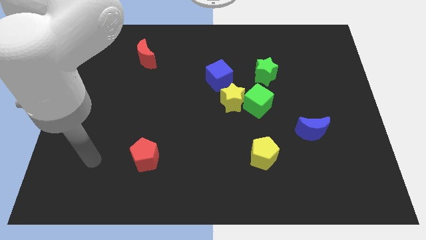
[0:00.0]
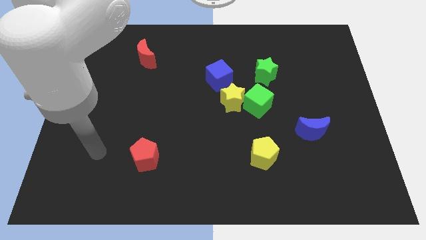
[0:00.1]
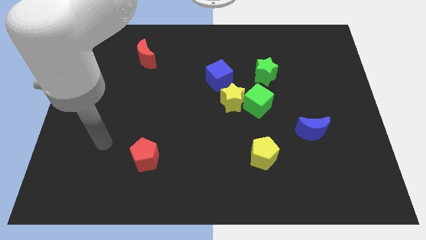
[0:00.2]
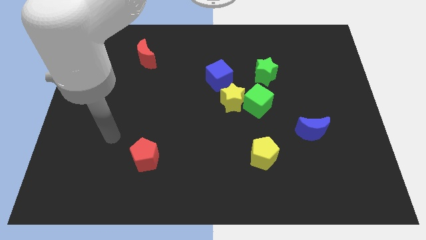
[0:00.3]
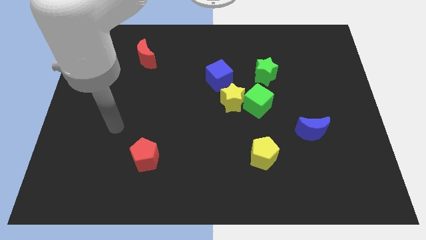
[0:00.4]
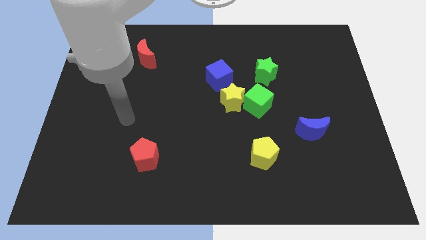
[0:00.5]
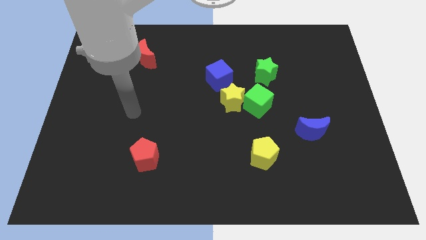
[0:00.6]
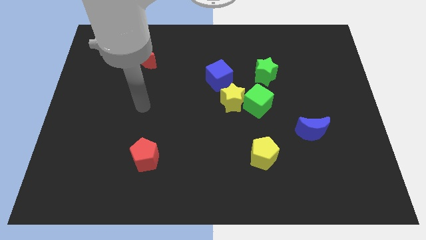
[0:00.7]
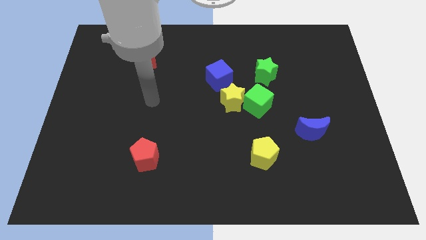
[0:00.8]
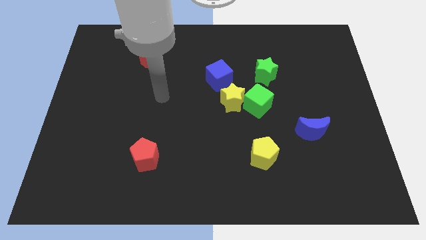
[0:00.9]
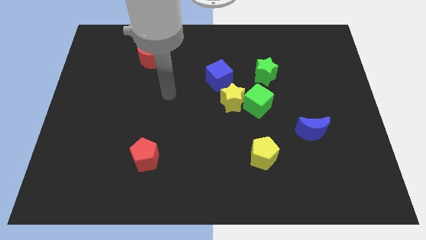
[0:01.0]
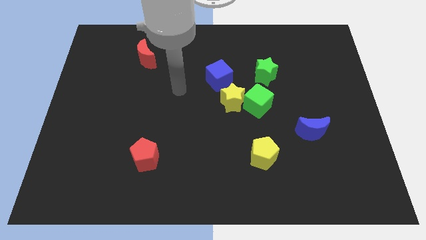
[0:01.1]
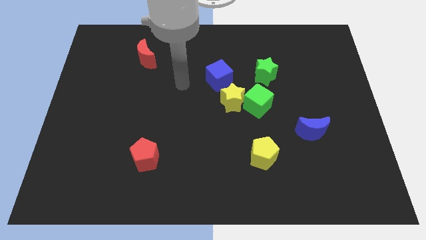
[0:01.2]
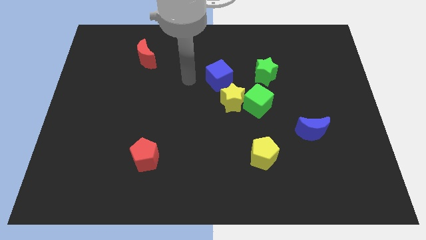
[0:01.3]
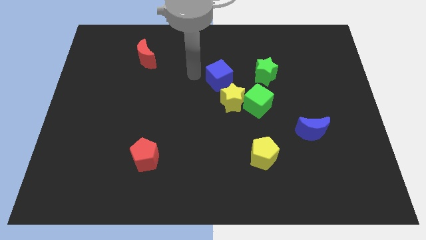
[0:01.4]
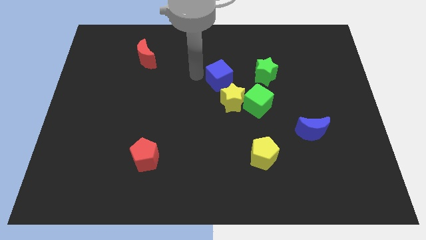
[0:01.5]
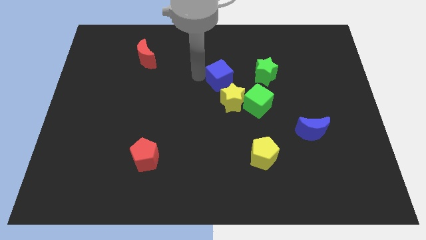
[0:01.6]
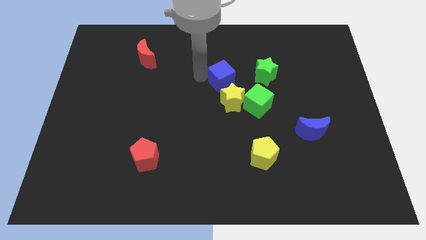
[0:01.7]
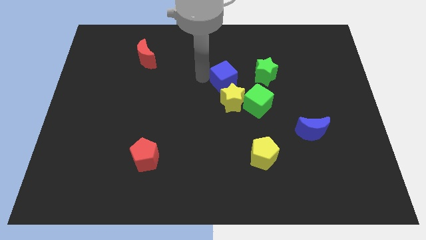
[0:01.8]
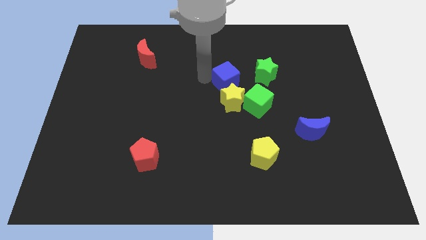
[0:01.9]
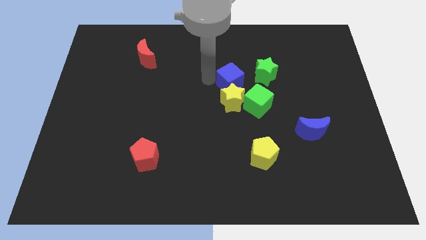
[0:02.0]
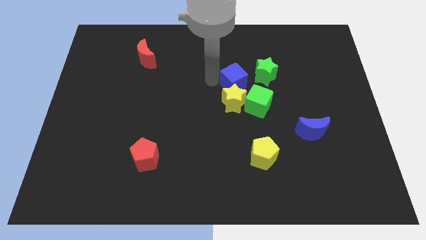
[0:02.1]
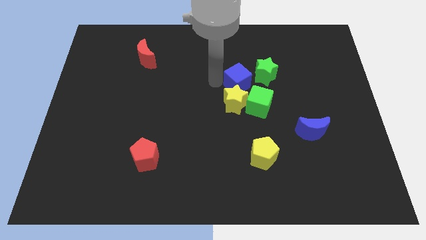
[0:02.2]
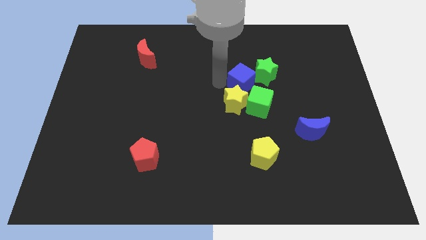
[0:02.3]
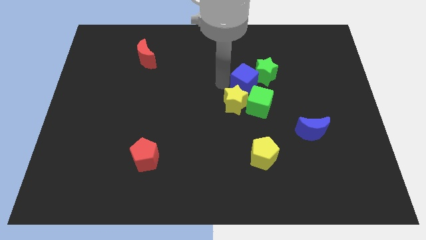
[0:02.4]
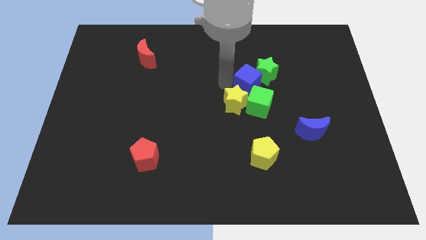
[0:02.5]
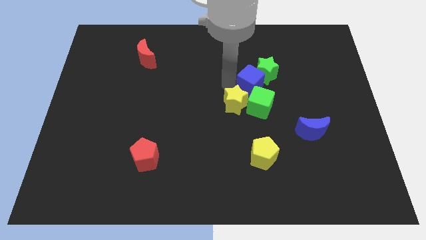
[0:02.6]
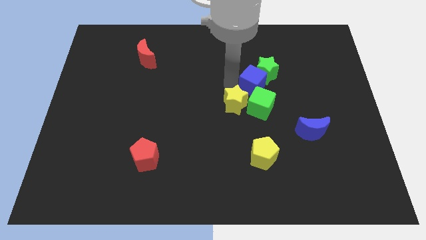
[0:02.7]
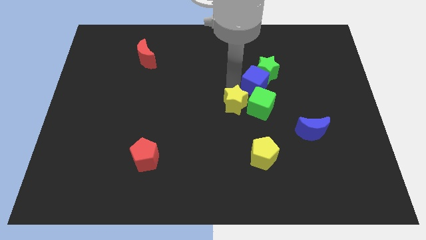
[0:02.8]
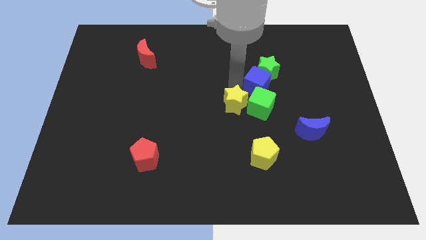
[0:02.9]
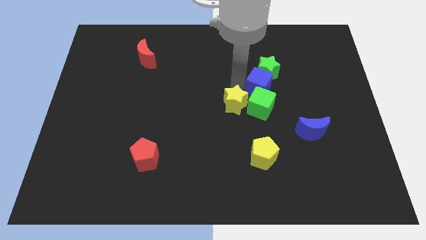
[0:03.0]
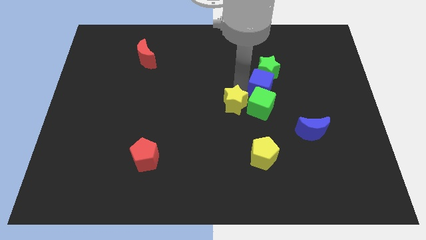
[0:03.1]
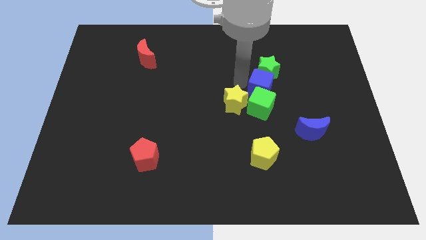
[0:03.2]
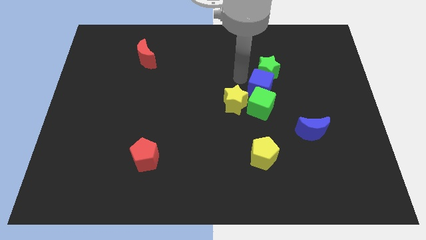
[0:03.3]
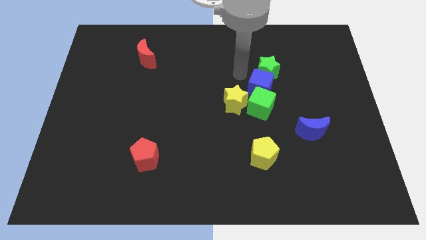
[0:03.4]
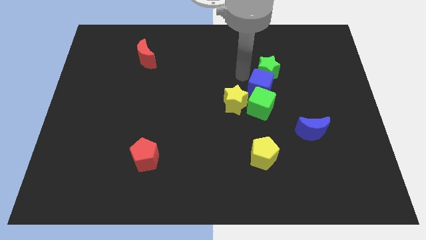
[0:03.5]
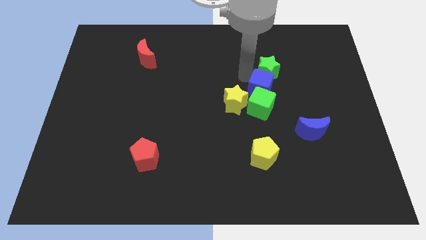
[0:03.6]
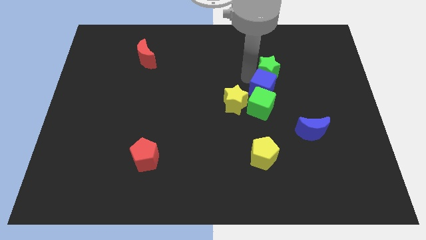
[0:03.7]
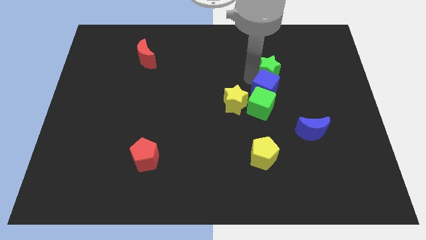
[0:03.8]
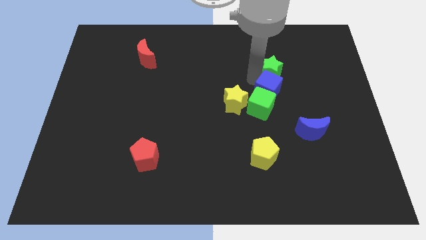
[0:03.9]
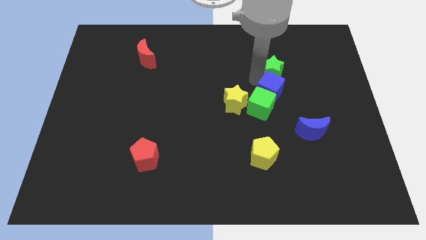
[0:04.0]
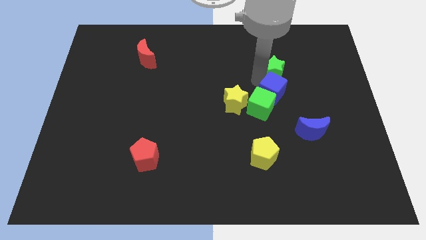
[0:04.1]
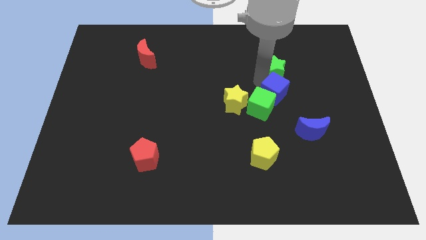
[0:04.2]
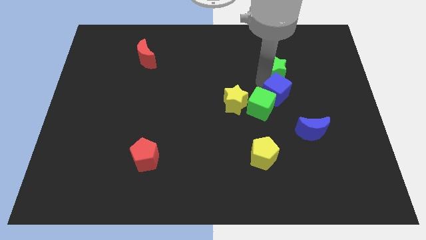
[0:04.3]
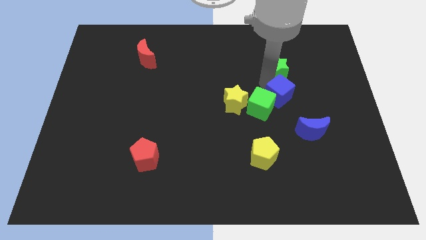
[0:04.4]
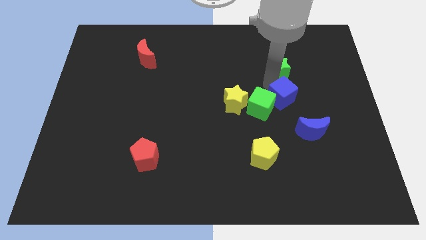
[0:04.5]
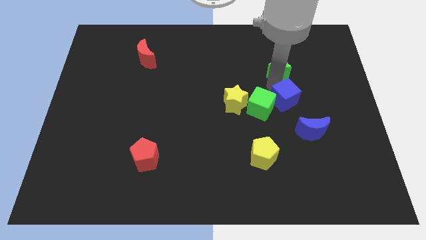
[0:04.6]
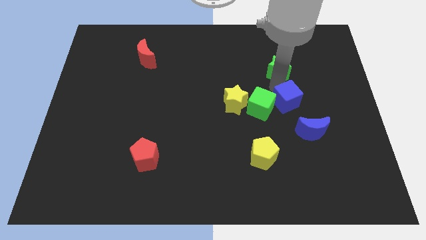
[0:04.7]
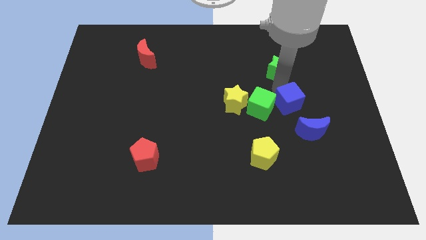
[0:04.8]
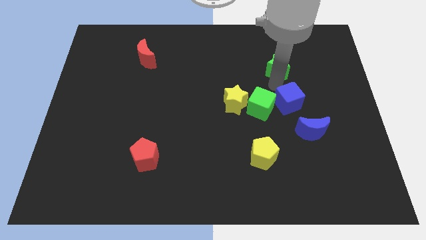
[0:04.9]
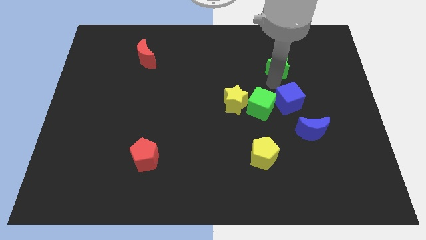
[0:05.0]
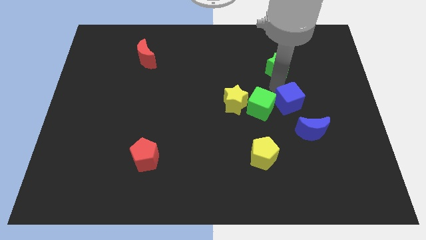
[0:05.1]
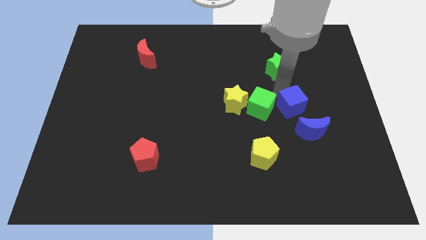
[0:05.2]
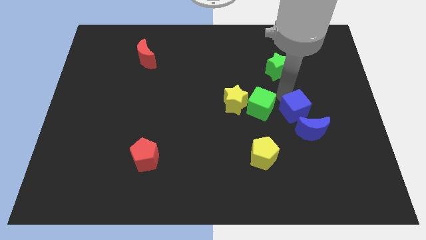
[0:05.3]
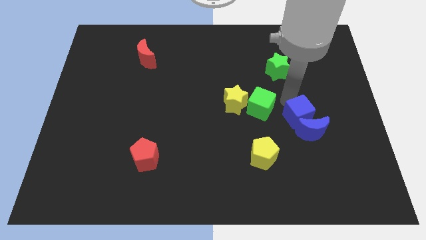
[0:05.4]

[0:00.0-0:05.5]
slide the blue cube towards the blue moon

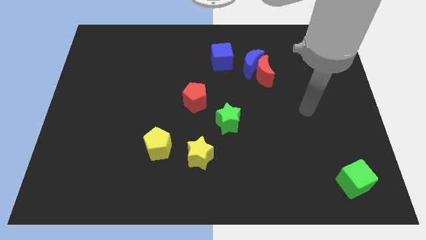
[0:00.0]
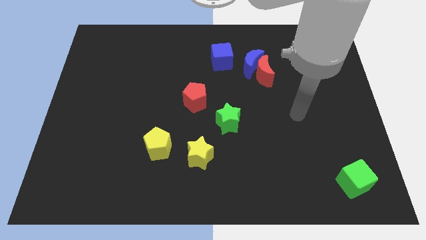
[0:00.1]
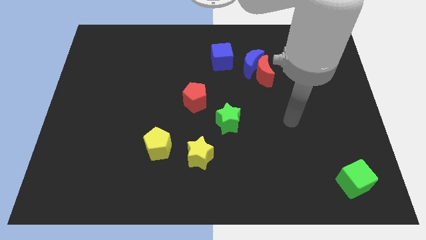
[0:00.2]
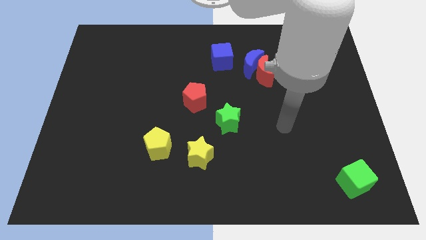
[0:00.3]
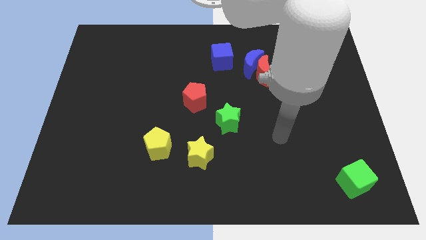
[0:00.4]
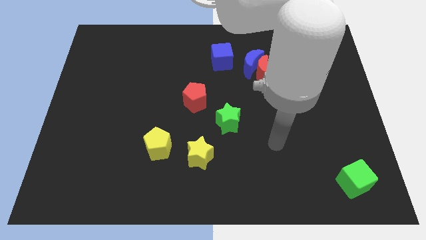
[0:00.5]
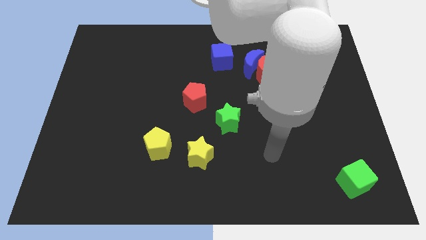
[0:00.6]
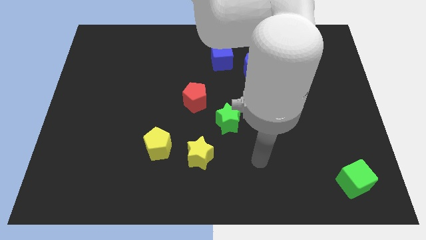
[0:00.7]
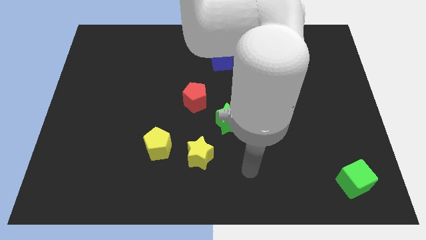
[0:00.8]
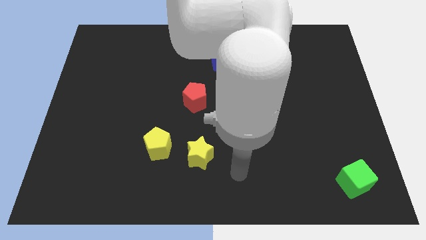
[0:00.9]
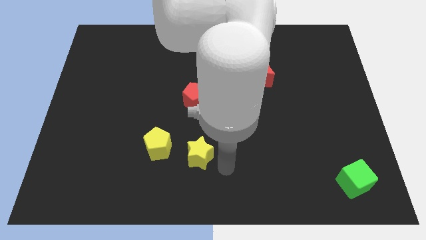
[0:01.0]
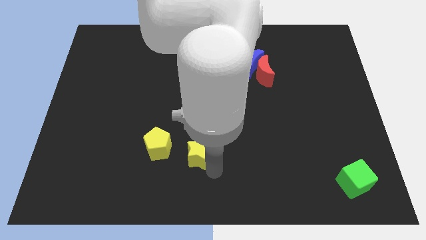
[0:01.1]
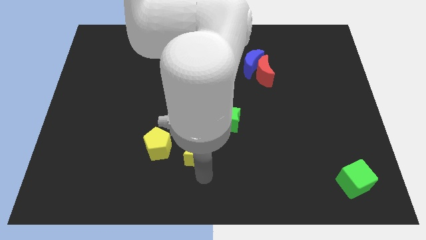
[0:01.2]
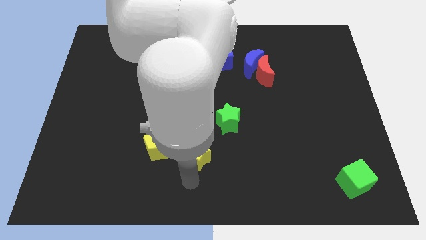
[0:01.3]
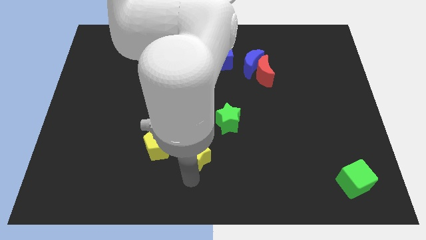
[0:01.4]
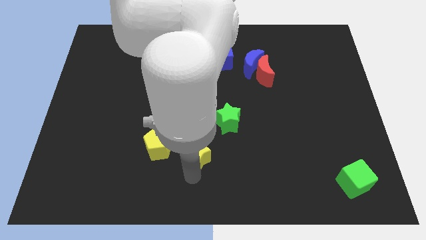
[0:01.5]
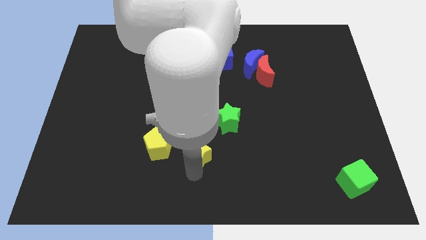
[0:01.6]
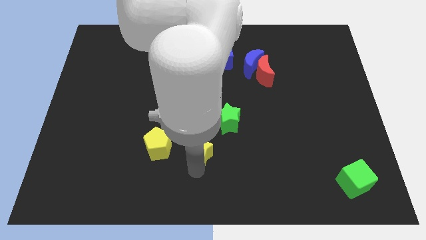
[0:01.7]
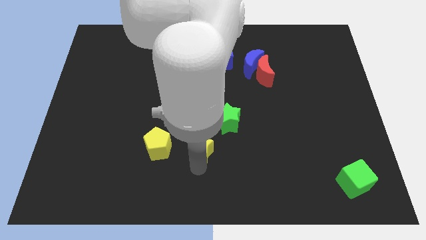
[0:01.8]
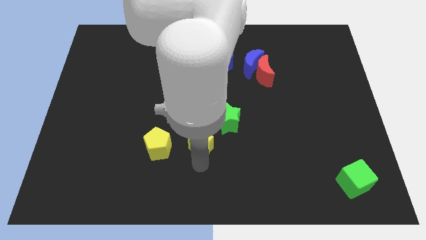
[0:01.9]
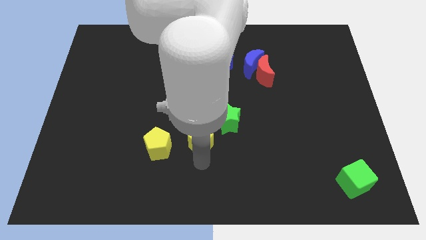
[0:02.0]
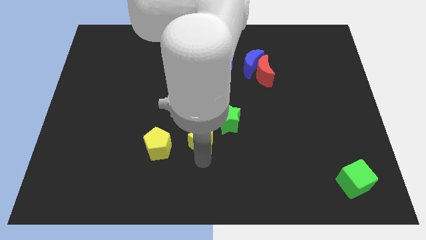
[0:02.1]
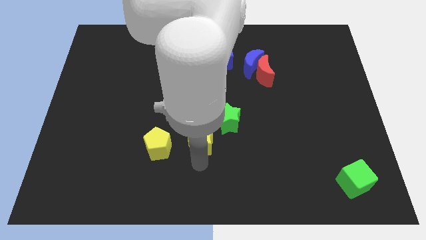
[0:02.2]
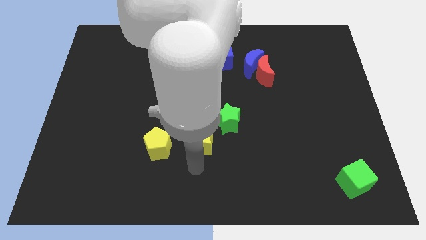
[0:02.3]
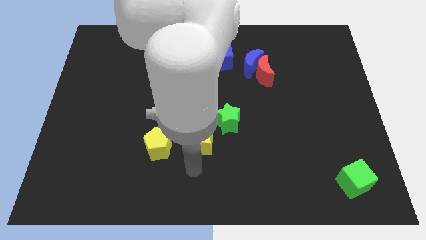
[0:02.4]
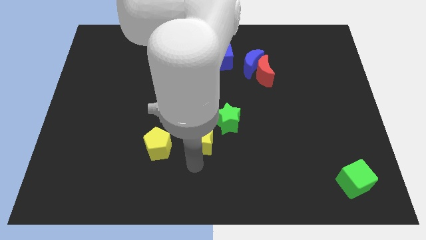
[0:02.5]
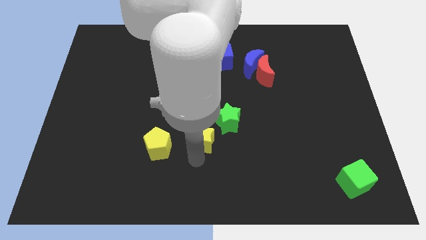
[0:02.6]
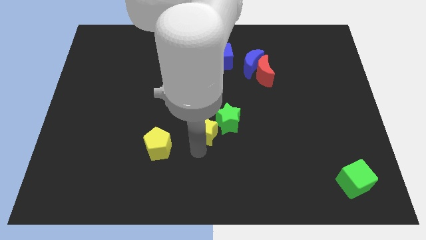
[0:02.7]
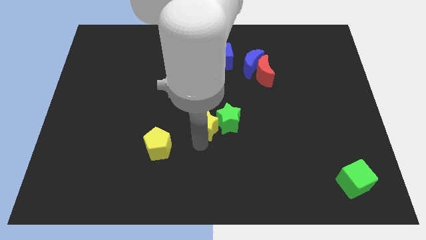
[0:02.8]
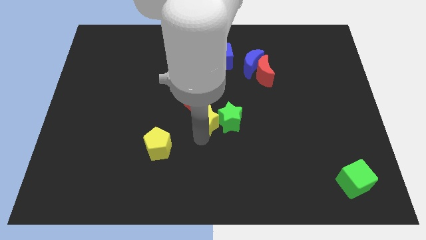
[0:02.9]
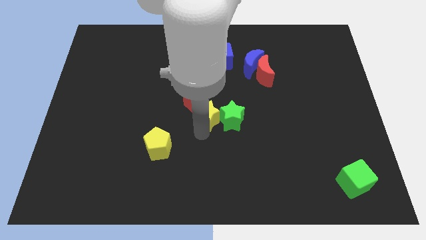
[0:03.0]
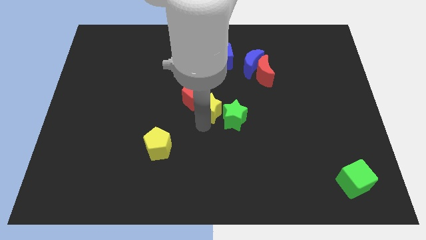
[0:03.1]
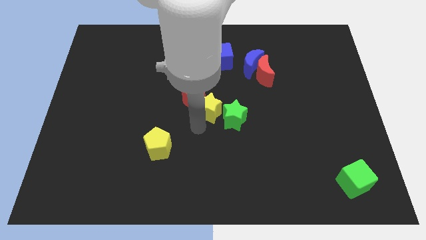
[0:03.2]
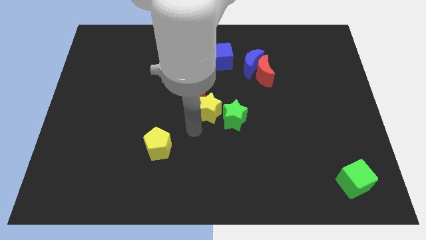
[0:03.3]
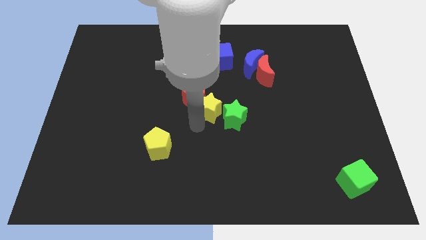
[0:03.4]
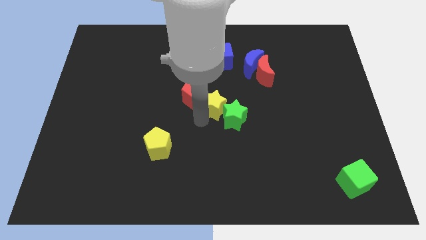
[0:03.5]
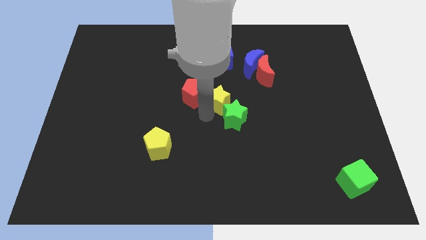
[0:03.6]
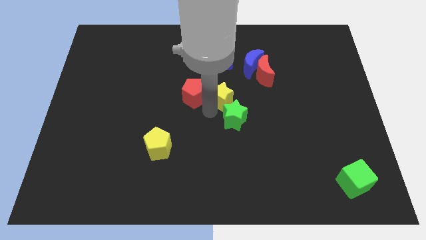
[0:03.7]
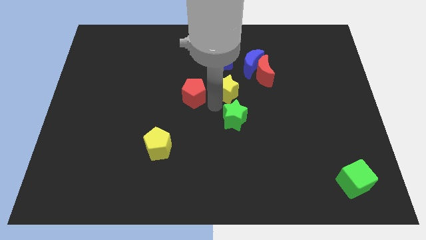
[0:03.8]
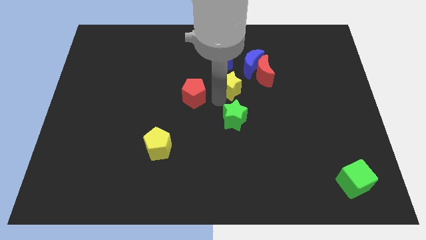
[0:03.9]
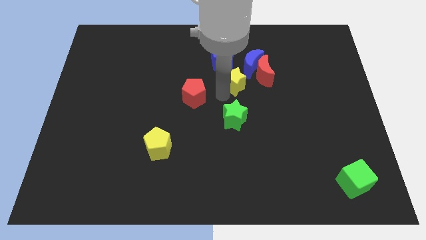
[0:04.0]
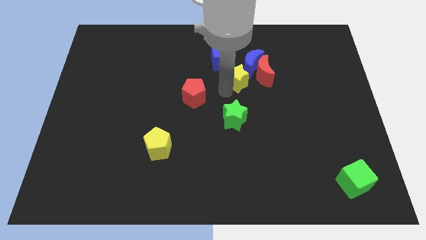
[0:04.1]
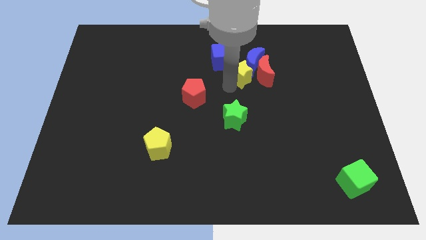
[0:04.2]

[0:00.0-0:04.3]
move the yellow star towards the blue moon
